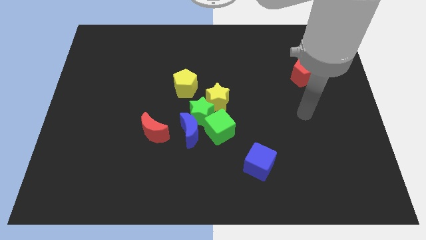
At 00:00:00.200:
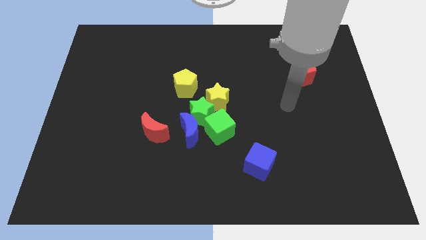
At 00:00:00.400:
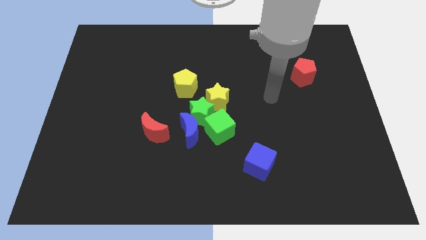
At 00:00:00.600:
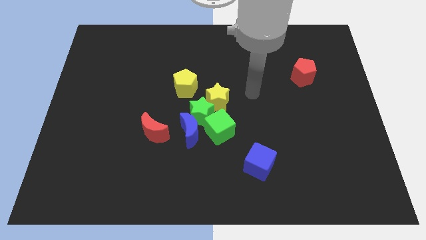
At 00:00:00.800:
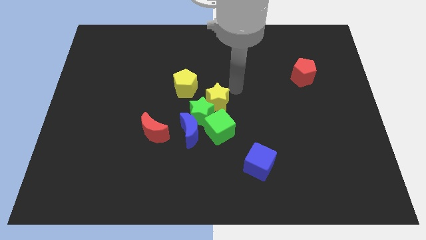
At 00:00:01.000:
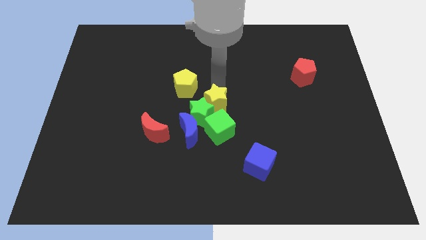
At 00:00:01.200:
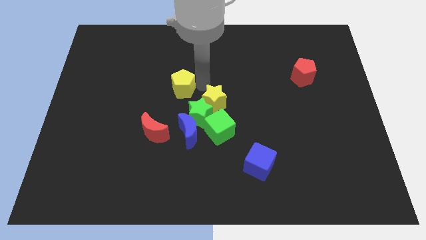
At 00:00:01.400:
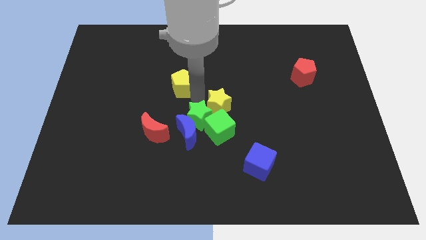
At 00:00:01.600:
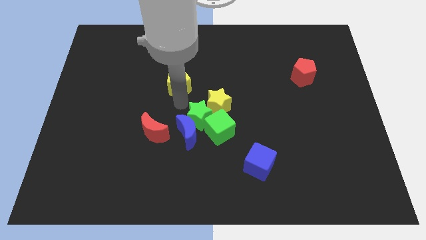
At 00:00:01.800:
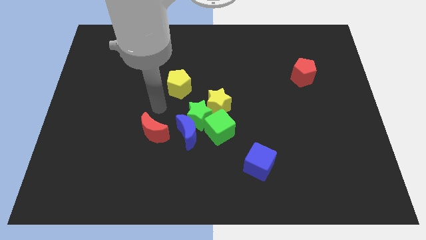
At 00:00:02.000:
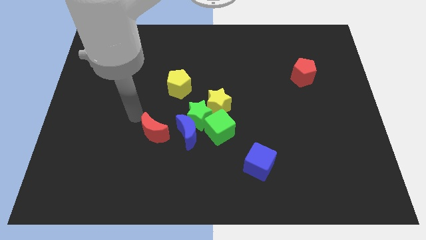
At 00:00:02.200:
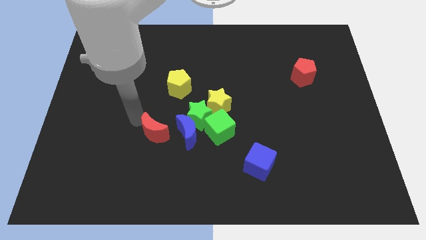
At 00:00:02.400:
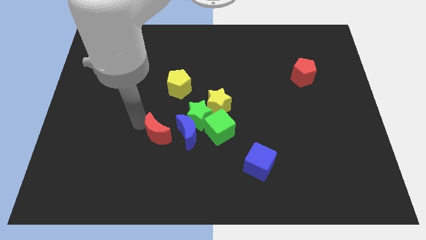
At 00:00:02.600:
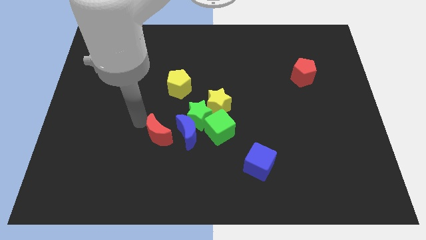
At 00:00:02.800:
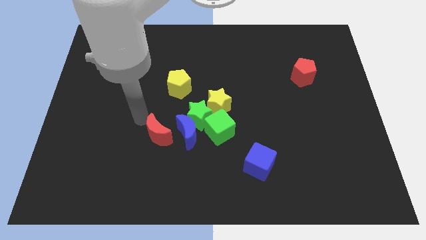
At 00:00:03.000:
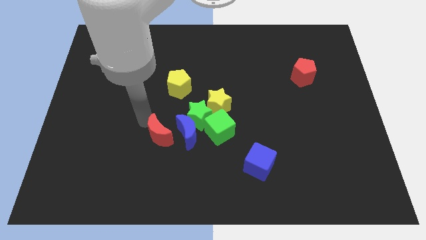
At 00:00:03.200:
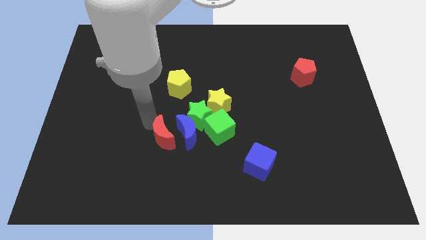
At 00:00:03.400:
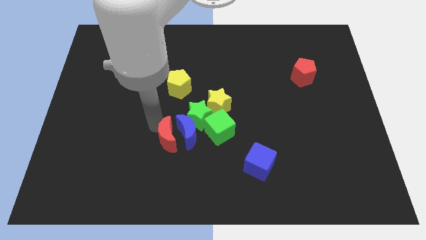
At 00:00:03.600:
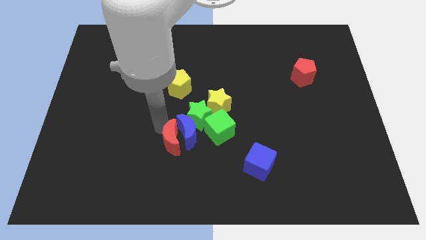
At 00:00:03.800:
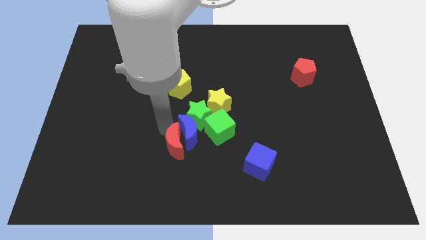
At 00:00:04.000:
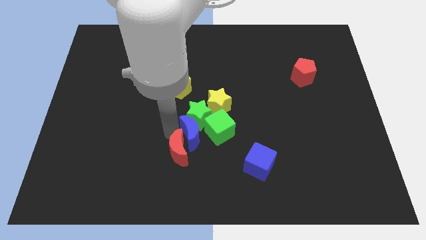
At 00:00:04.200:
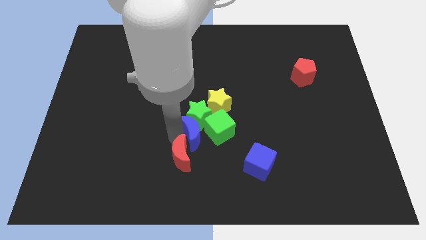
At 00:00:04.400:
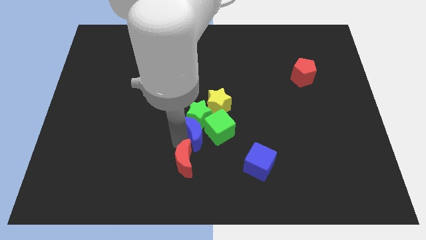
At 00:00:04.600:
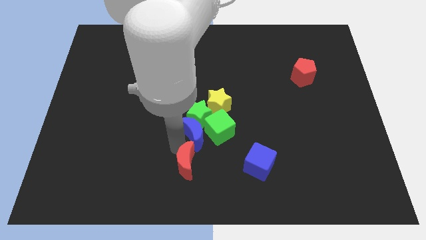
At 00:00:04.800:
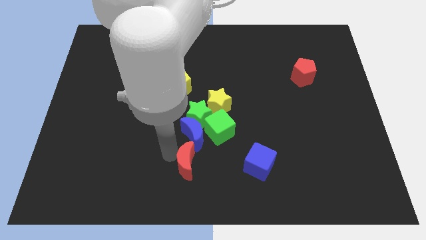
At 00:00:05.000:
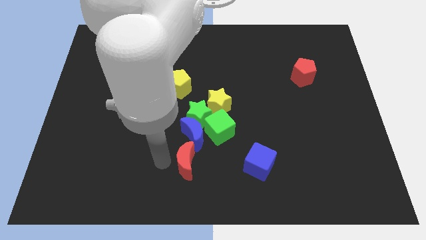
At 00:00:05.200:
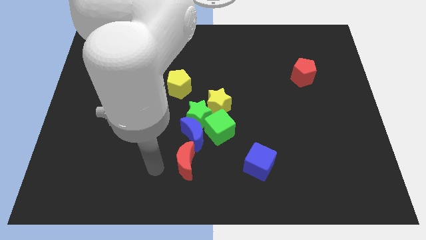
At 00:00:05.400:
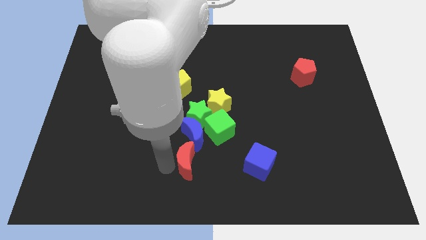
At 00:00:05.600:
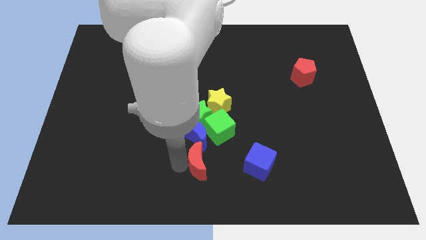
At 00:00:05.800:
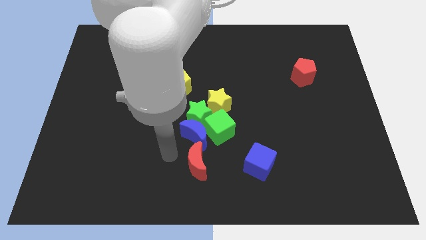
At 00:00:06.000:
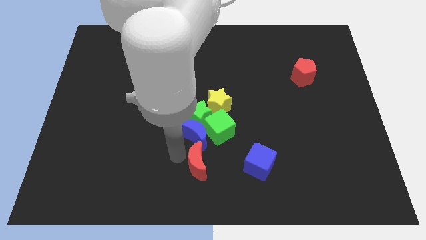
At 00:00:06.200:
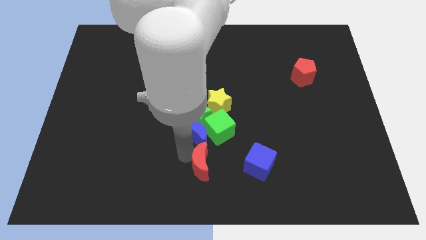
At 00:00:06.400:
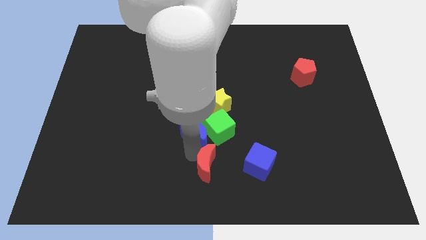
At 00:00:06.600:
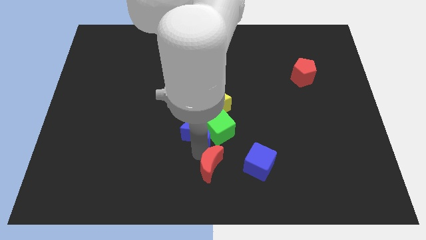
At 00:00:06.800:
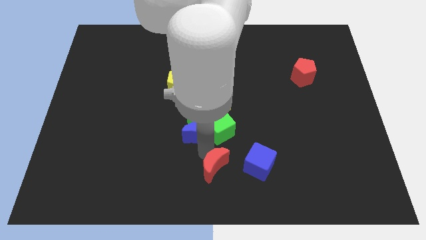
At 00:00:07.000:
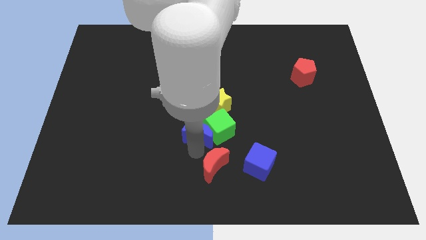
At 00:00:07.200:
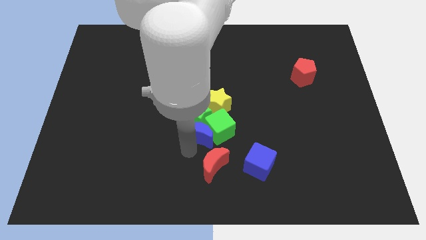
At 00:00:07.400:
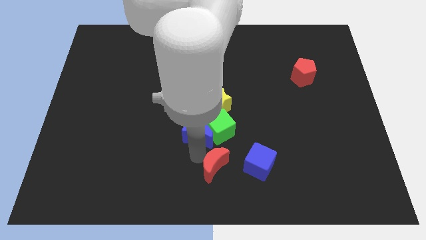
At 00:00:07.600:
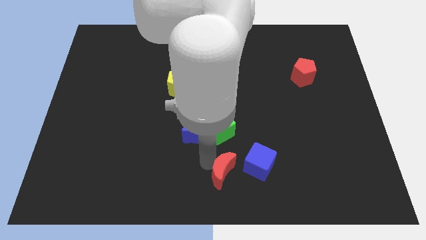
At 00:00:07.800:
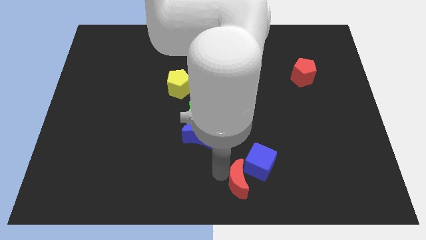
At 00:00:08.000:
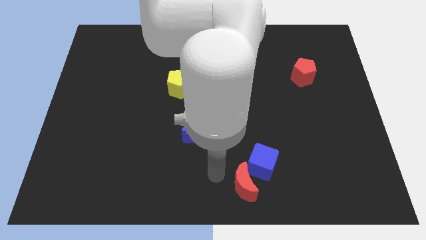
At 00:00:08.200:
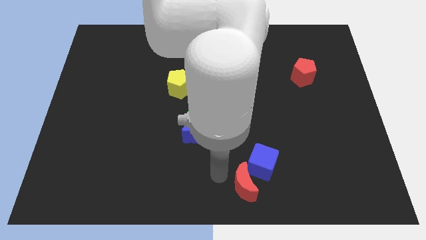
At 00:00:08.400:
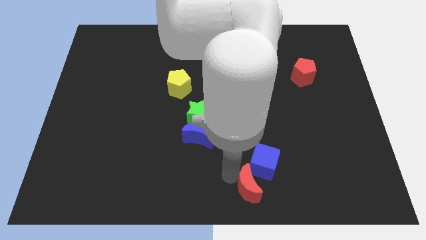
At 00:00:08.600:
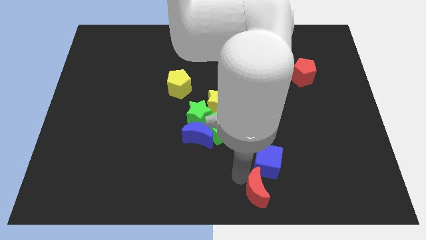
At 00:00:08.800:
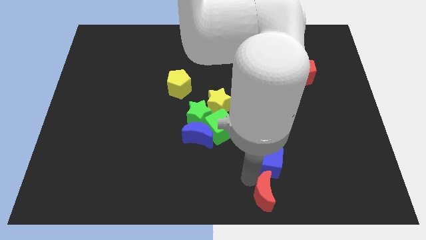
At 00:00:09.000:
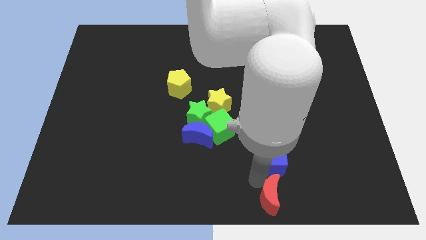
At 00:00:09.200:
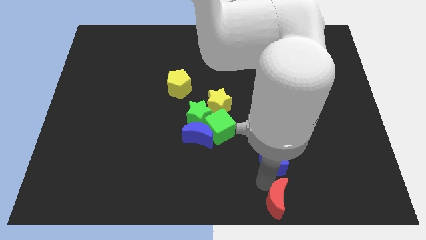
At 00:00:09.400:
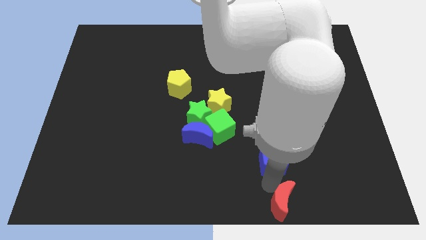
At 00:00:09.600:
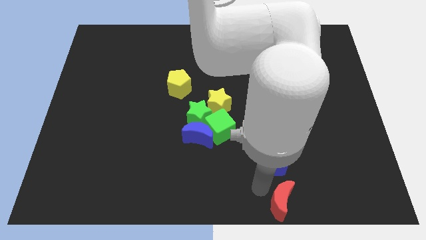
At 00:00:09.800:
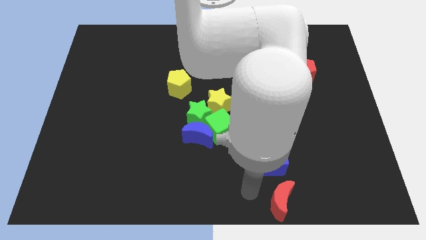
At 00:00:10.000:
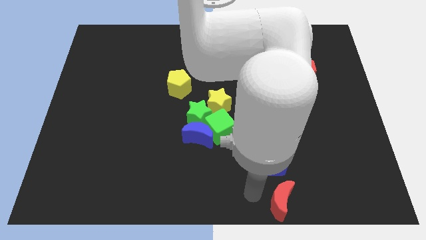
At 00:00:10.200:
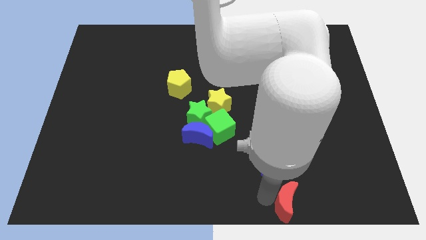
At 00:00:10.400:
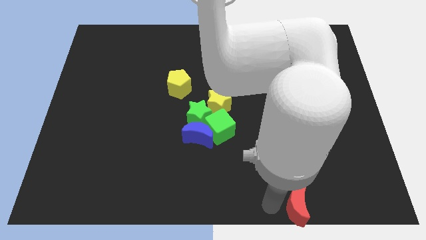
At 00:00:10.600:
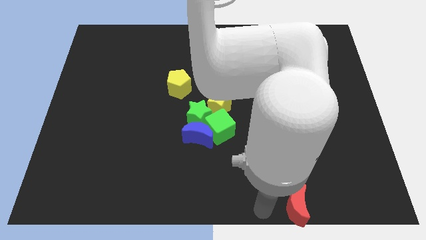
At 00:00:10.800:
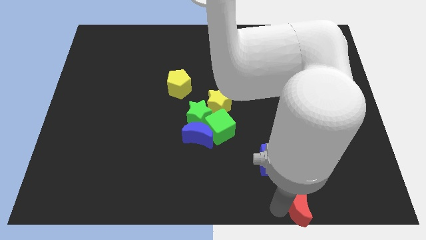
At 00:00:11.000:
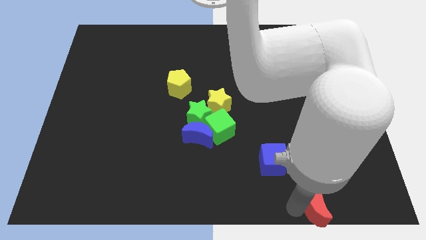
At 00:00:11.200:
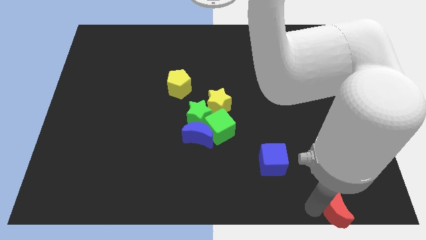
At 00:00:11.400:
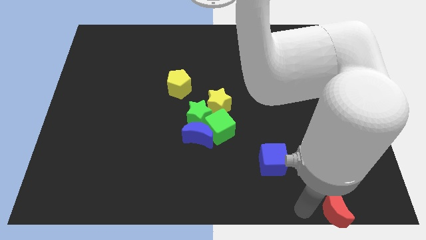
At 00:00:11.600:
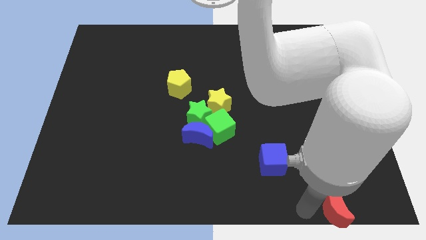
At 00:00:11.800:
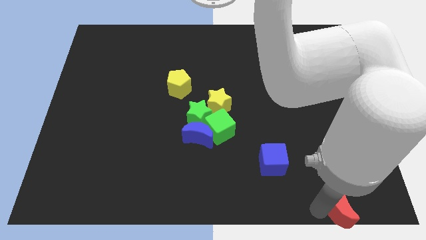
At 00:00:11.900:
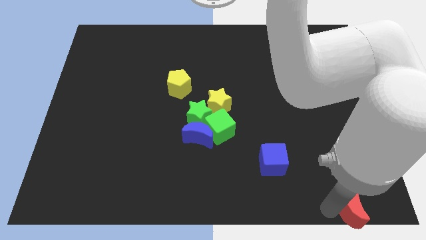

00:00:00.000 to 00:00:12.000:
move the red moon to the lower right corner

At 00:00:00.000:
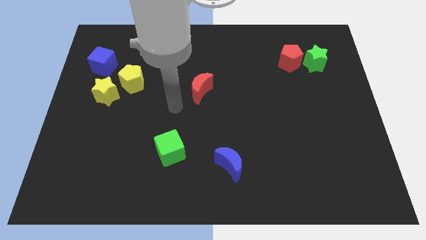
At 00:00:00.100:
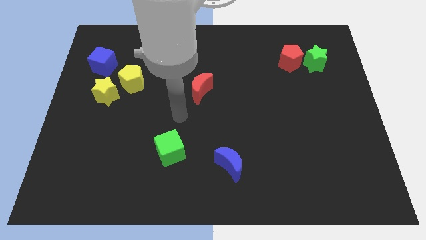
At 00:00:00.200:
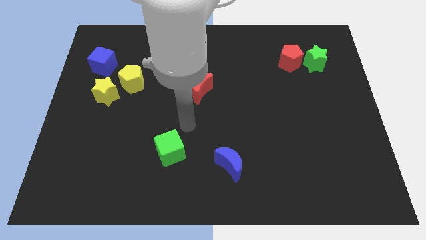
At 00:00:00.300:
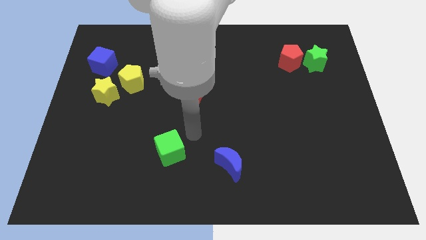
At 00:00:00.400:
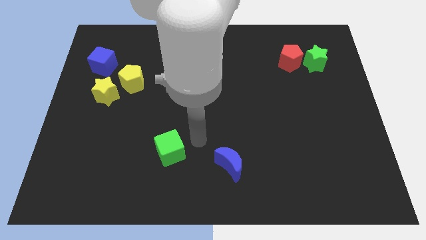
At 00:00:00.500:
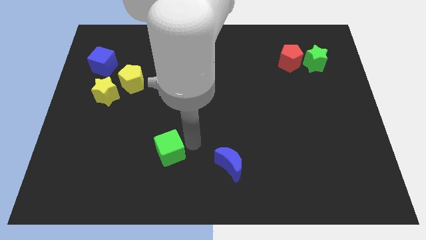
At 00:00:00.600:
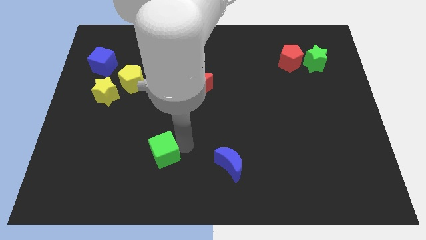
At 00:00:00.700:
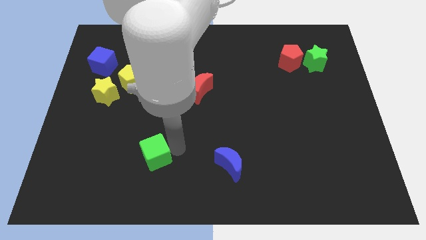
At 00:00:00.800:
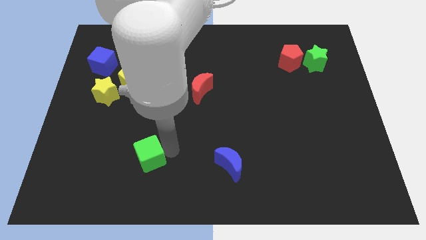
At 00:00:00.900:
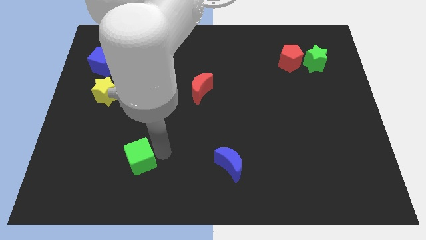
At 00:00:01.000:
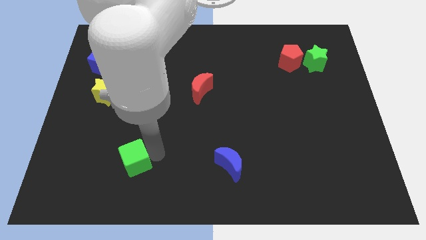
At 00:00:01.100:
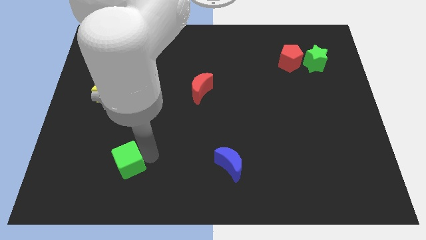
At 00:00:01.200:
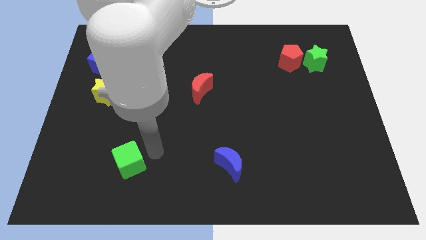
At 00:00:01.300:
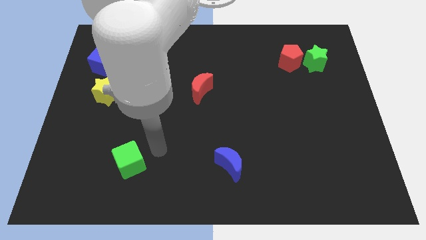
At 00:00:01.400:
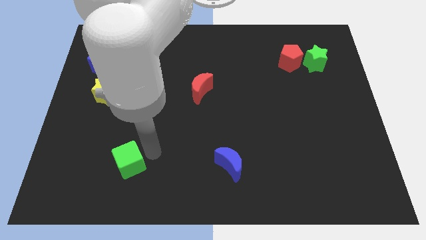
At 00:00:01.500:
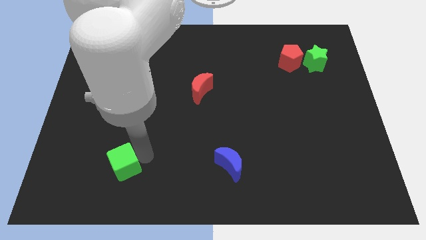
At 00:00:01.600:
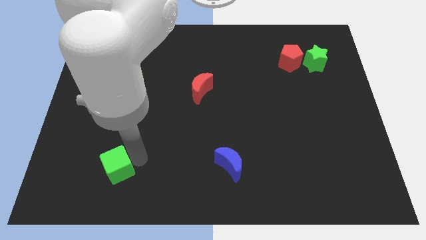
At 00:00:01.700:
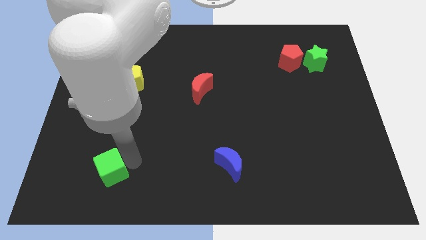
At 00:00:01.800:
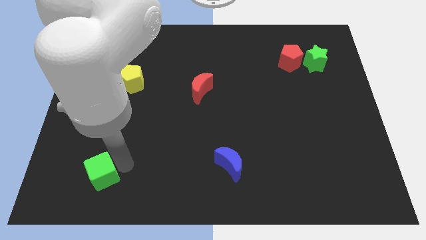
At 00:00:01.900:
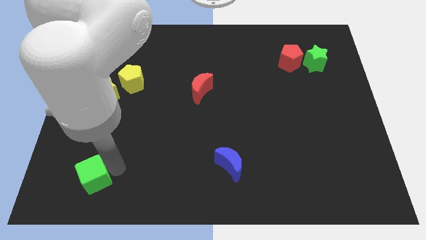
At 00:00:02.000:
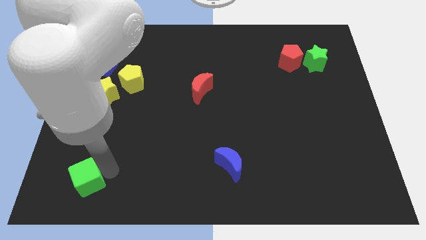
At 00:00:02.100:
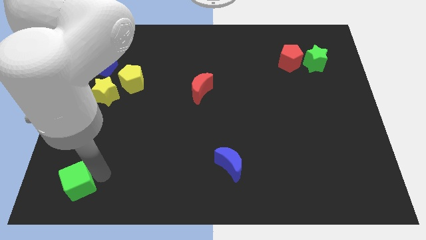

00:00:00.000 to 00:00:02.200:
push the green cube to the lower left corner
